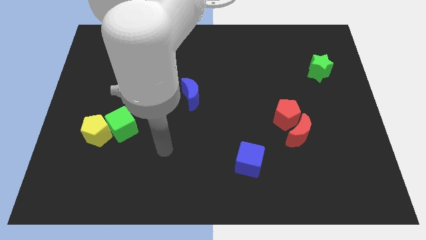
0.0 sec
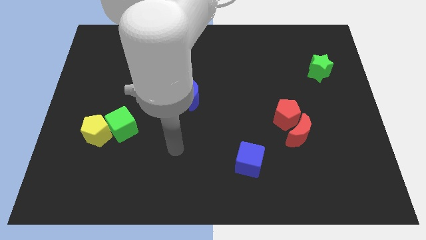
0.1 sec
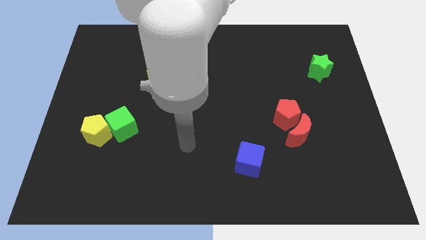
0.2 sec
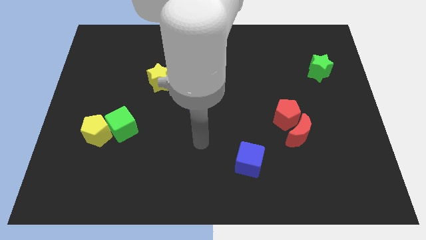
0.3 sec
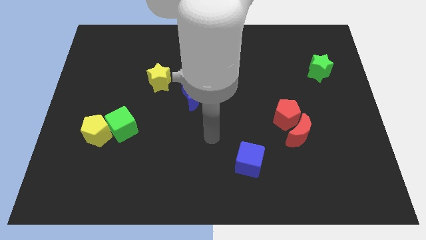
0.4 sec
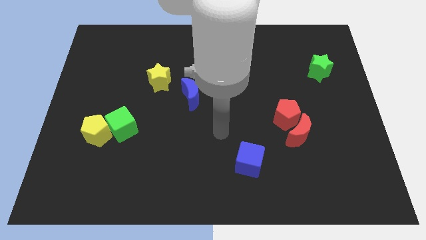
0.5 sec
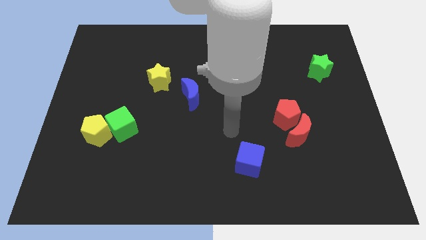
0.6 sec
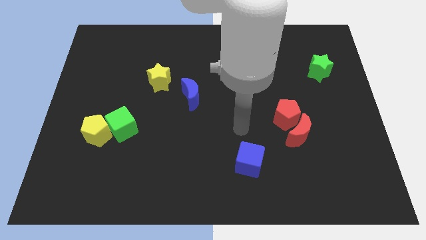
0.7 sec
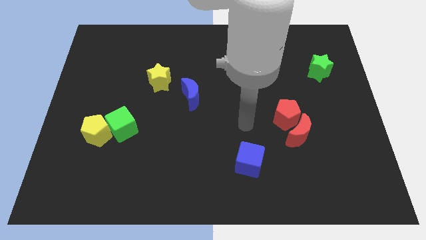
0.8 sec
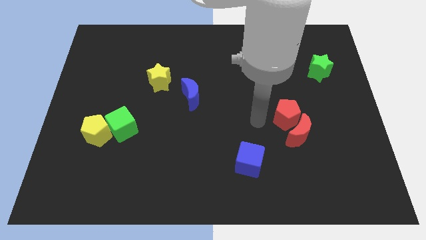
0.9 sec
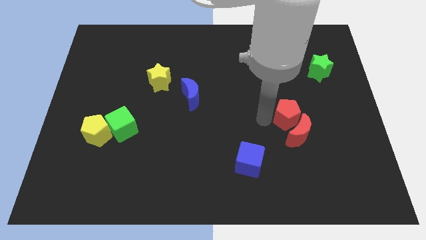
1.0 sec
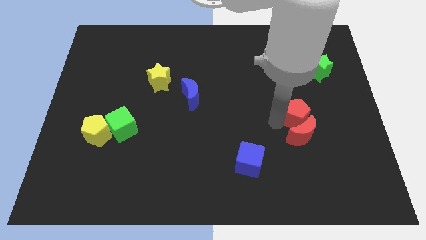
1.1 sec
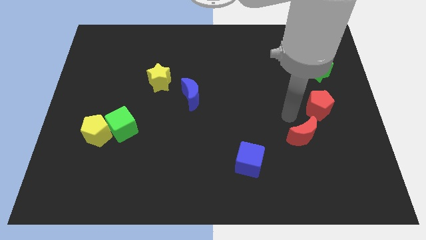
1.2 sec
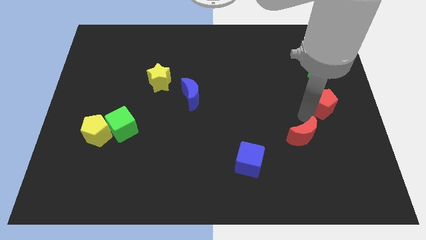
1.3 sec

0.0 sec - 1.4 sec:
pull the red moon apart from the red pentagon

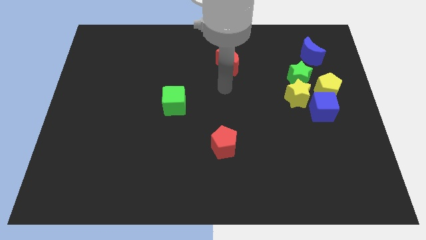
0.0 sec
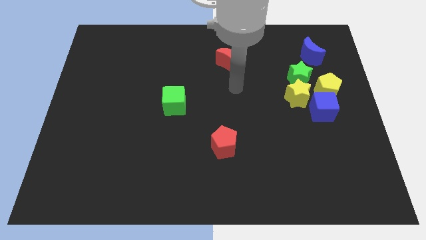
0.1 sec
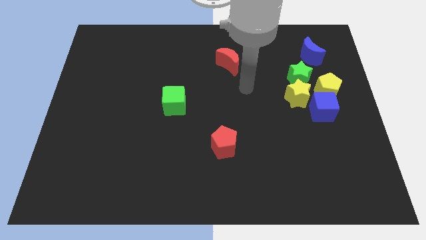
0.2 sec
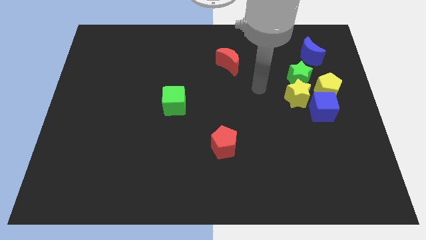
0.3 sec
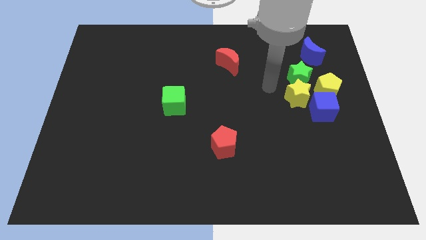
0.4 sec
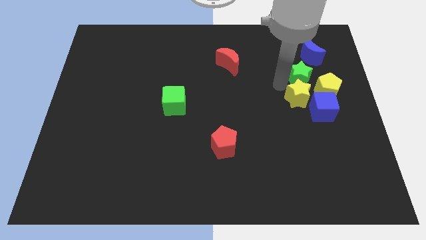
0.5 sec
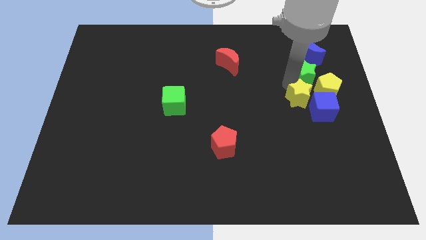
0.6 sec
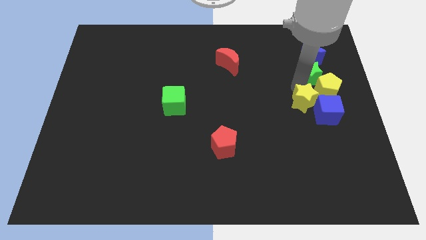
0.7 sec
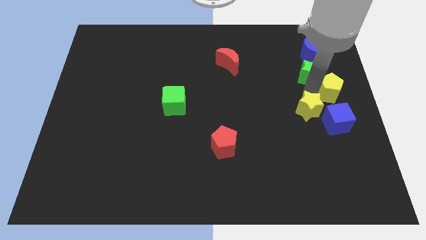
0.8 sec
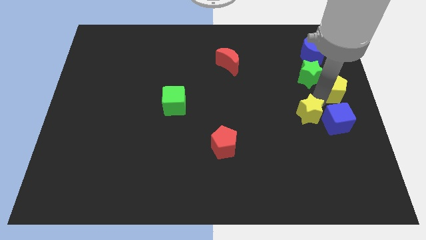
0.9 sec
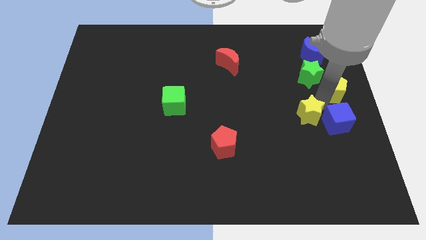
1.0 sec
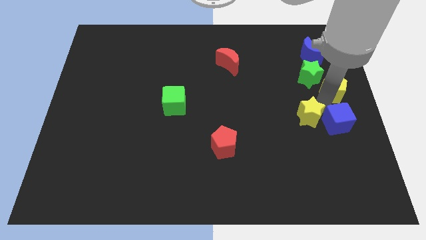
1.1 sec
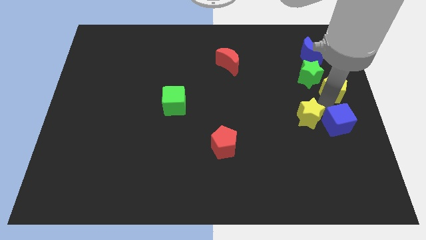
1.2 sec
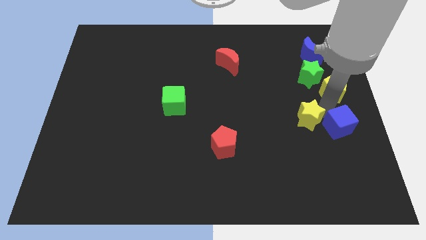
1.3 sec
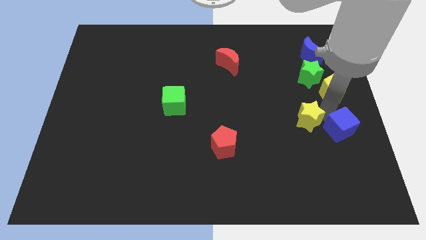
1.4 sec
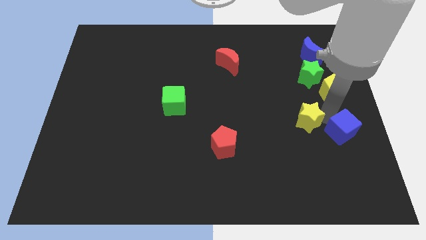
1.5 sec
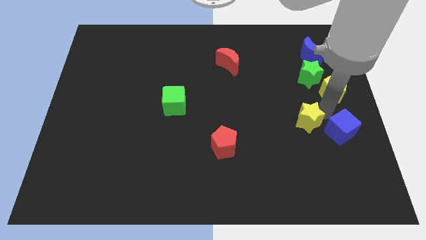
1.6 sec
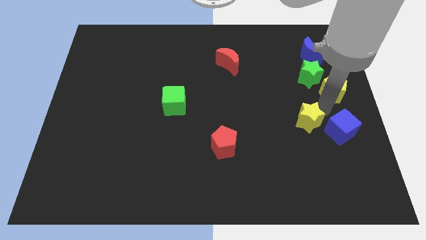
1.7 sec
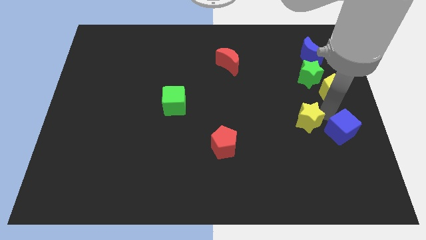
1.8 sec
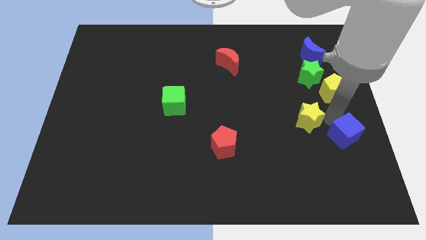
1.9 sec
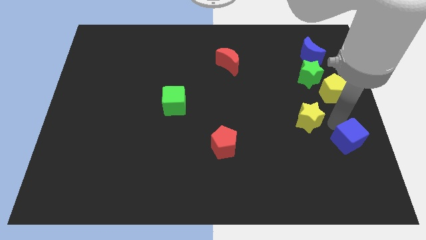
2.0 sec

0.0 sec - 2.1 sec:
move the blue cube away from the yellow pentagon and yellow star

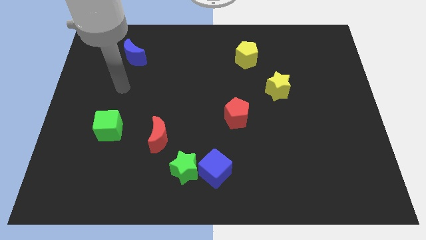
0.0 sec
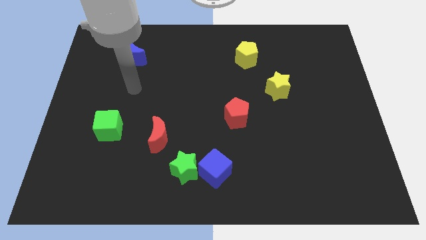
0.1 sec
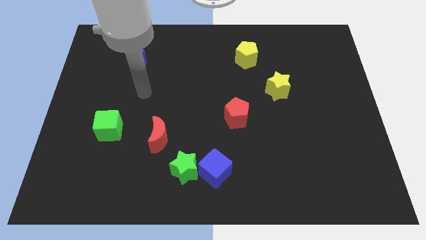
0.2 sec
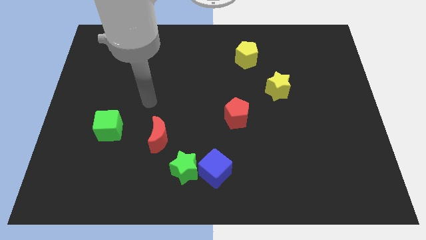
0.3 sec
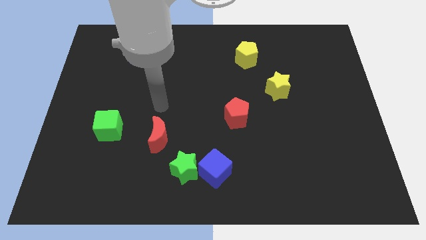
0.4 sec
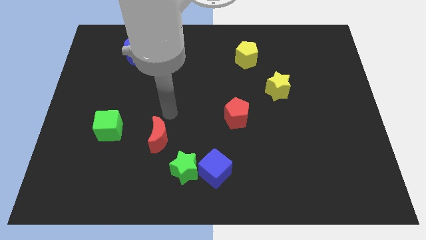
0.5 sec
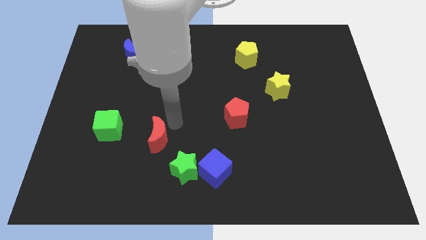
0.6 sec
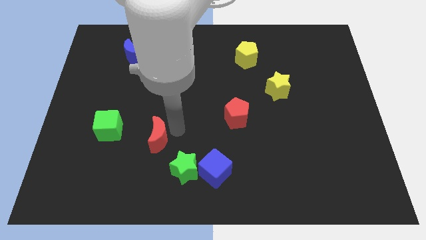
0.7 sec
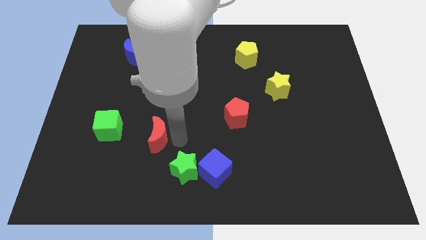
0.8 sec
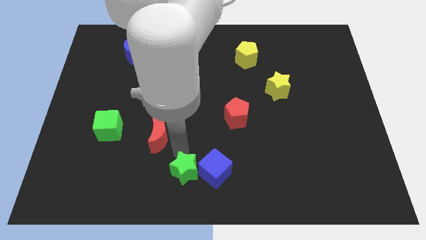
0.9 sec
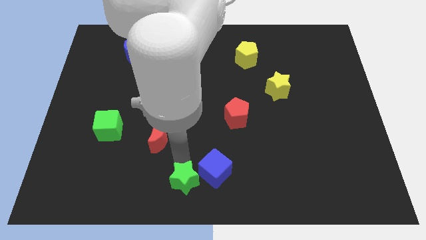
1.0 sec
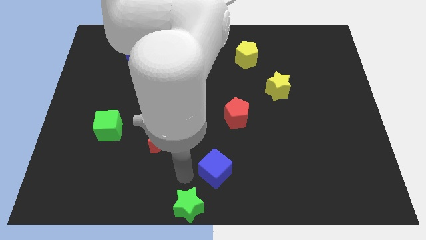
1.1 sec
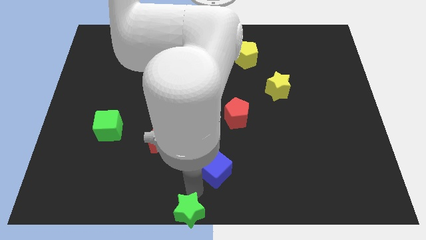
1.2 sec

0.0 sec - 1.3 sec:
pull the blue cube apart from the green star

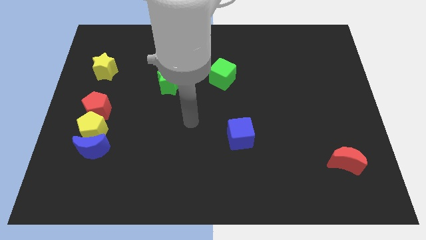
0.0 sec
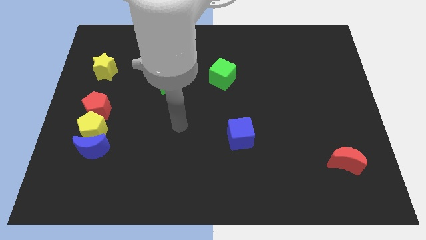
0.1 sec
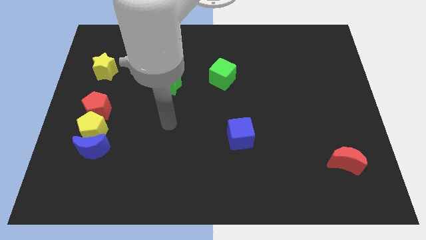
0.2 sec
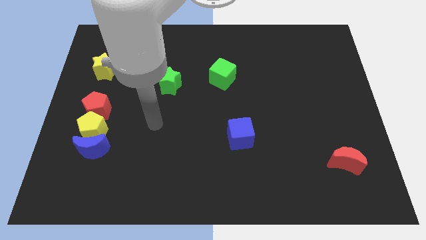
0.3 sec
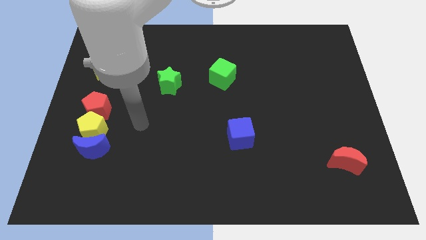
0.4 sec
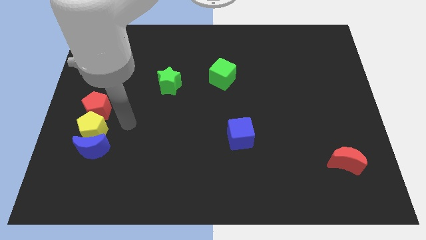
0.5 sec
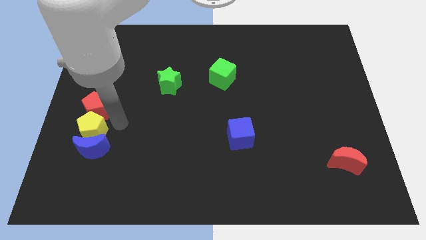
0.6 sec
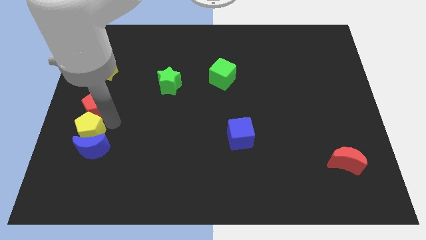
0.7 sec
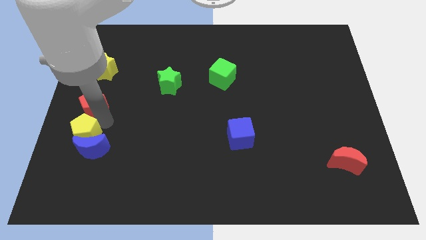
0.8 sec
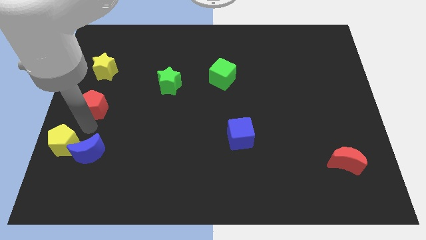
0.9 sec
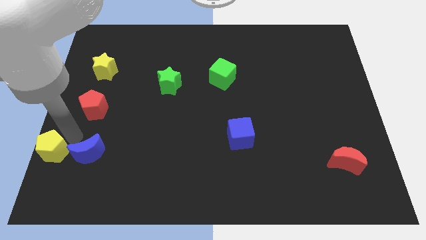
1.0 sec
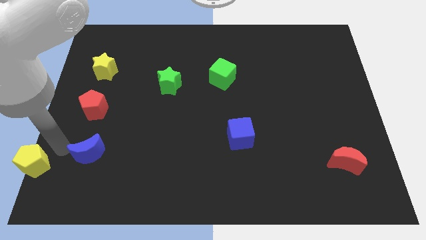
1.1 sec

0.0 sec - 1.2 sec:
move the blue moon away from the yellow pentagon

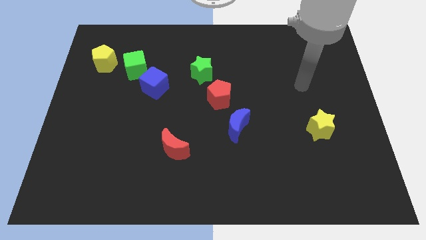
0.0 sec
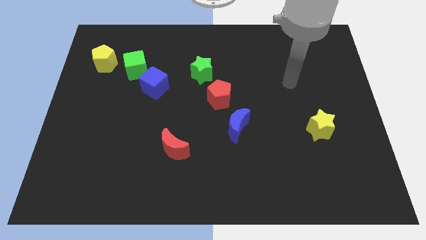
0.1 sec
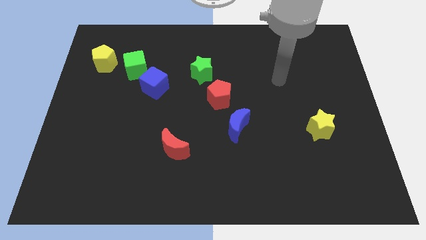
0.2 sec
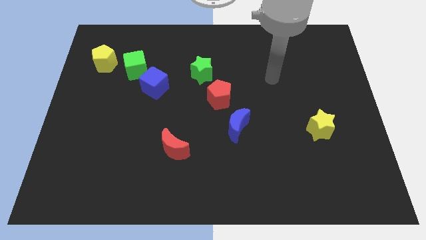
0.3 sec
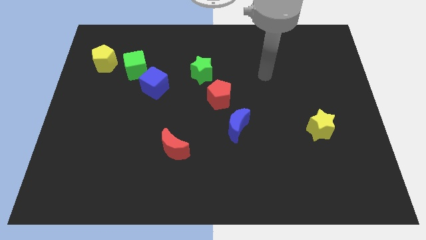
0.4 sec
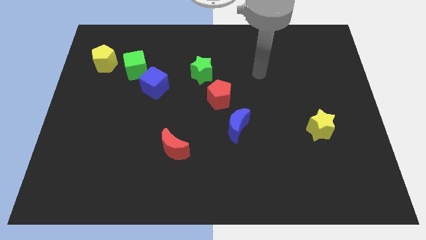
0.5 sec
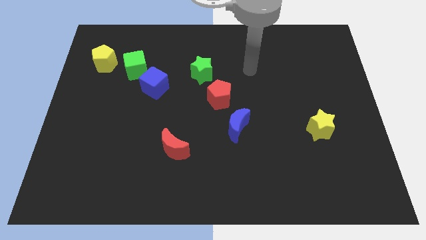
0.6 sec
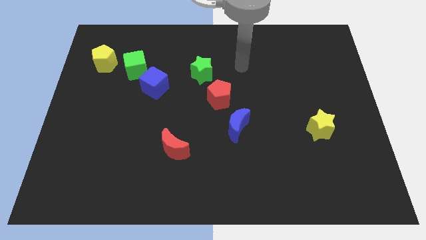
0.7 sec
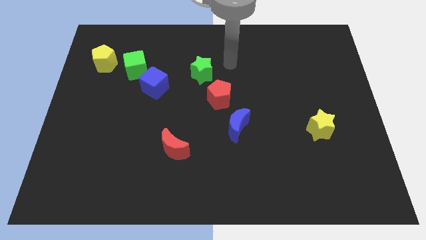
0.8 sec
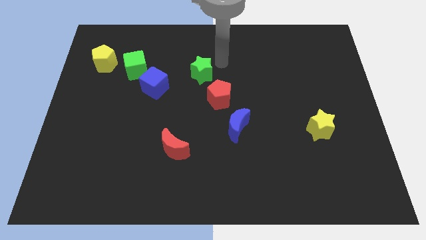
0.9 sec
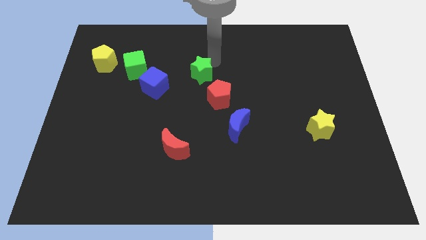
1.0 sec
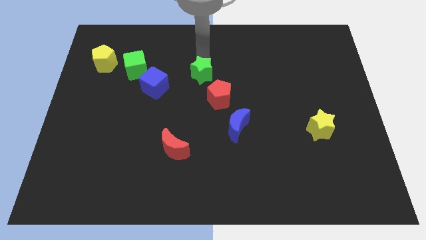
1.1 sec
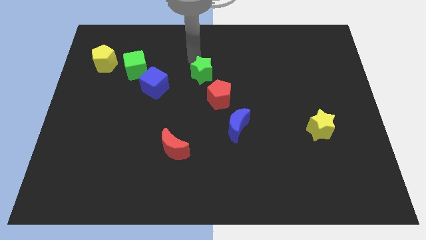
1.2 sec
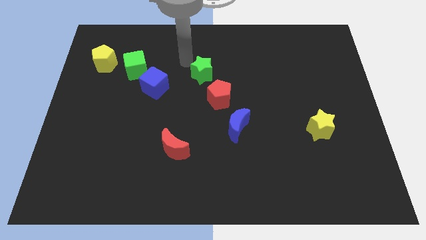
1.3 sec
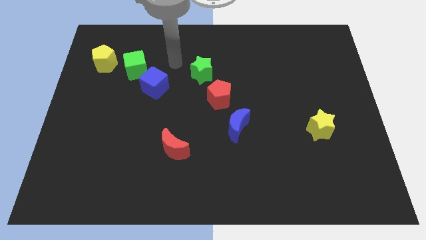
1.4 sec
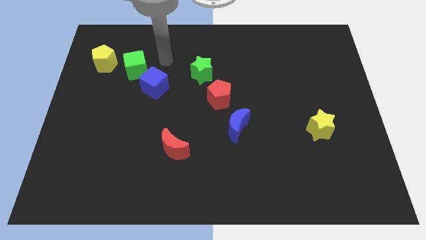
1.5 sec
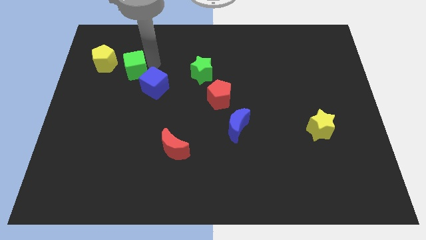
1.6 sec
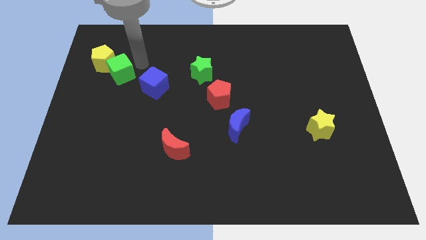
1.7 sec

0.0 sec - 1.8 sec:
separate the blue cube from the green cube

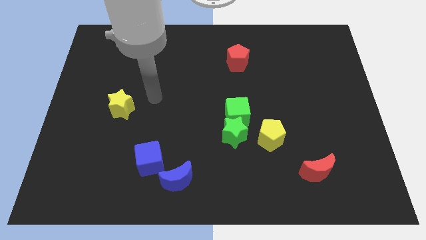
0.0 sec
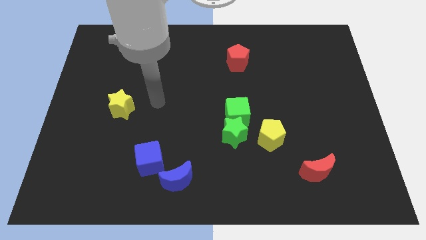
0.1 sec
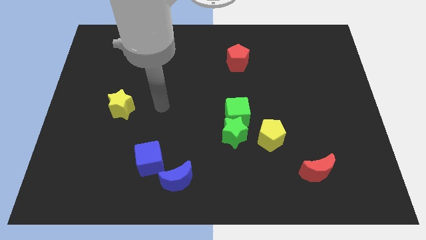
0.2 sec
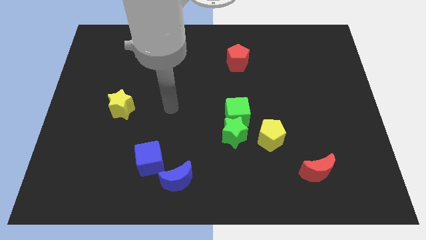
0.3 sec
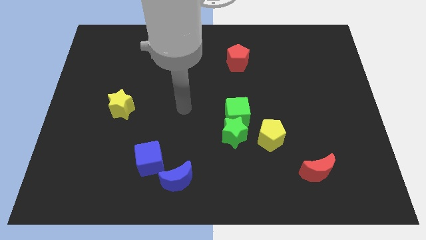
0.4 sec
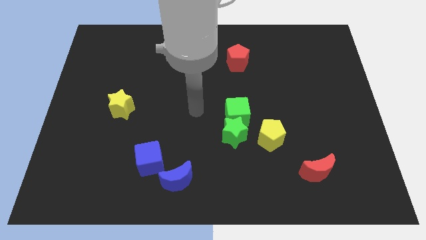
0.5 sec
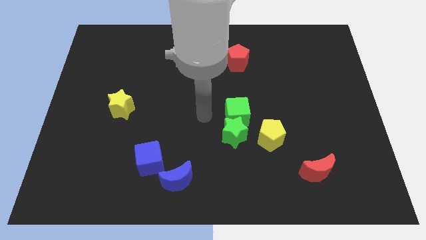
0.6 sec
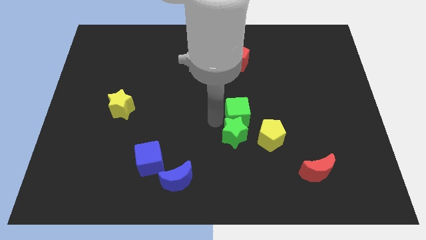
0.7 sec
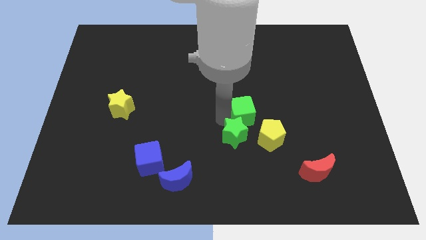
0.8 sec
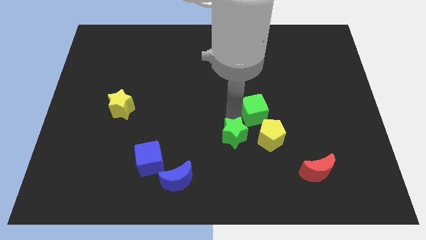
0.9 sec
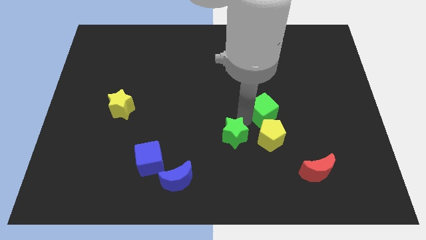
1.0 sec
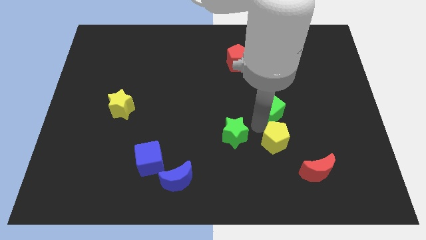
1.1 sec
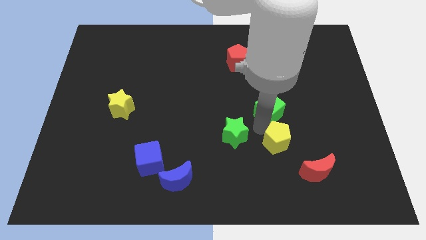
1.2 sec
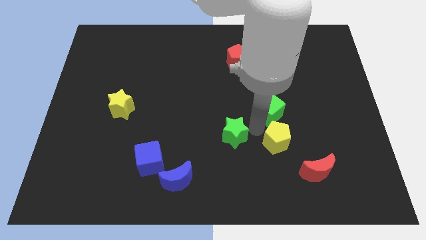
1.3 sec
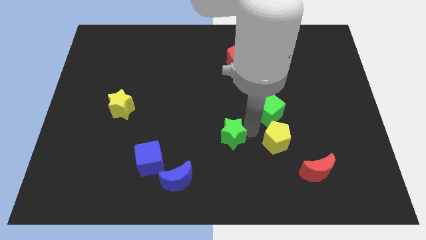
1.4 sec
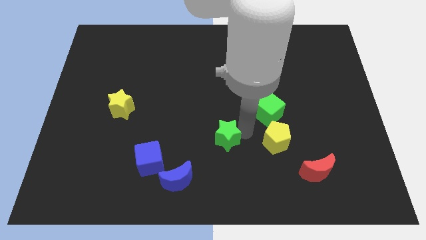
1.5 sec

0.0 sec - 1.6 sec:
move the green star away from the green cube and yellow pentagon
